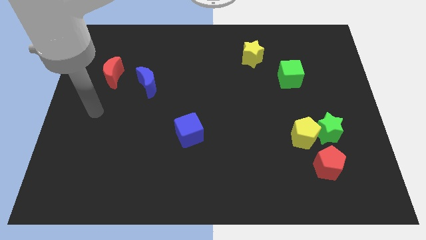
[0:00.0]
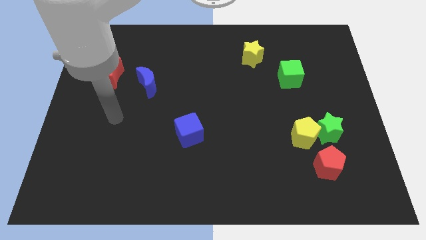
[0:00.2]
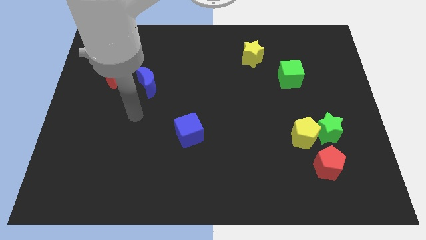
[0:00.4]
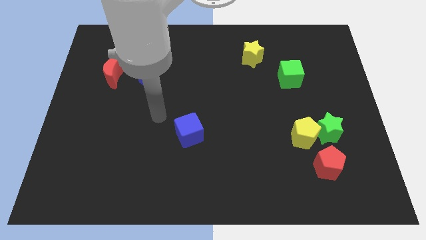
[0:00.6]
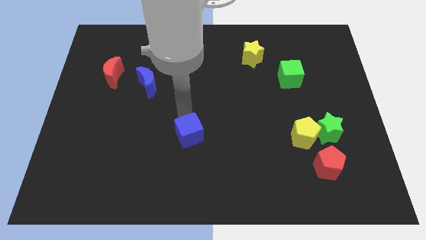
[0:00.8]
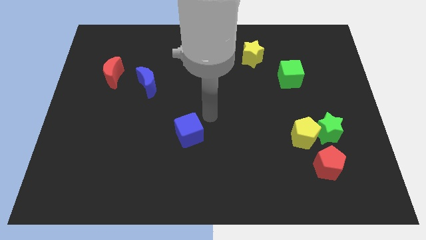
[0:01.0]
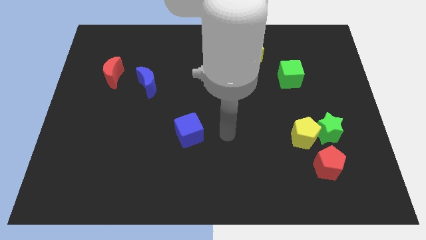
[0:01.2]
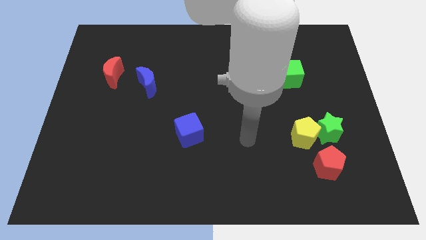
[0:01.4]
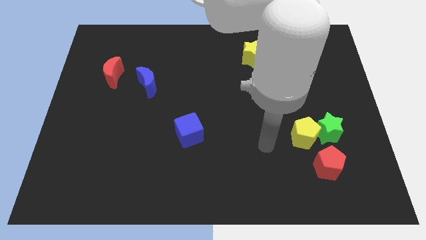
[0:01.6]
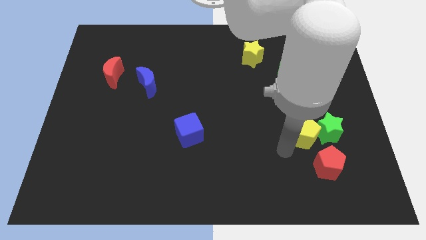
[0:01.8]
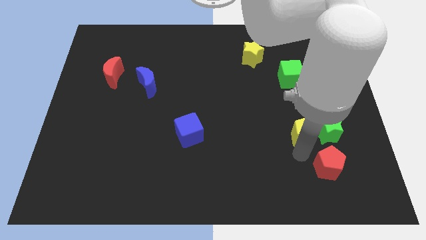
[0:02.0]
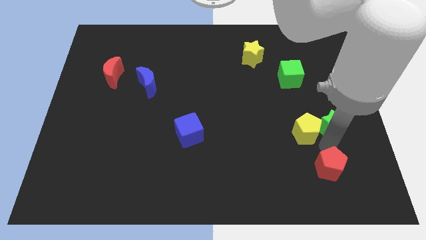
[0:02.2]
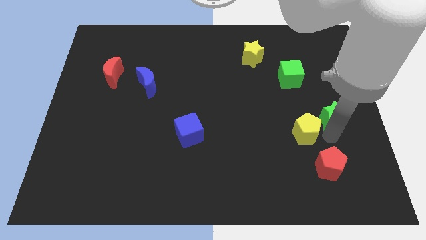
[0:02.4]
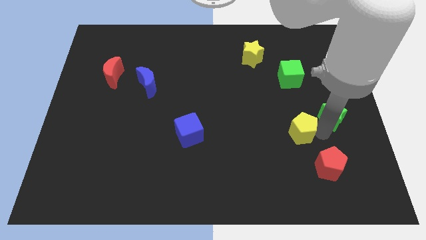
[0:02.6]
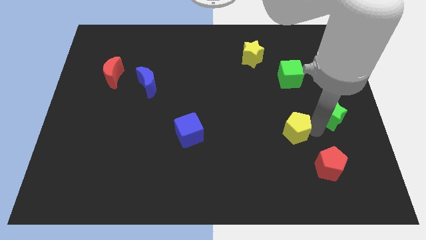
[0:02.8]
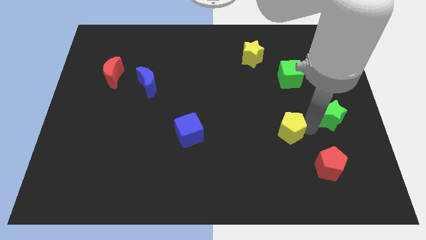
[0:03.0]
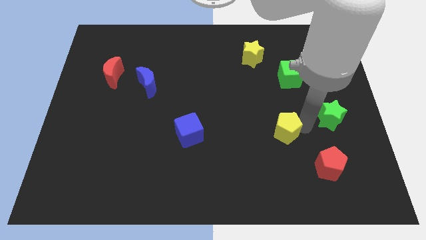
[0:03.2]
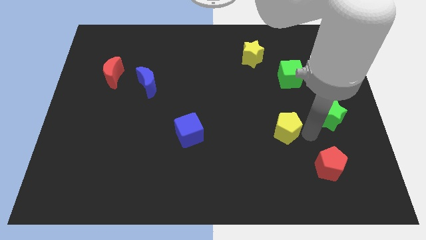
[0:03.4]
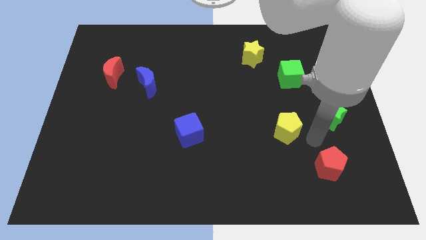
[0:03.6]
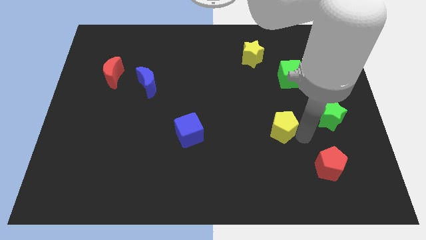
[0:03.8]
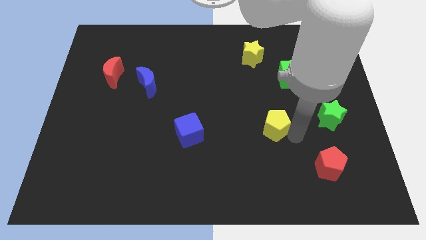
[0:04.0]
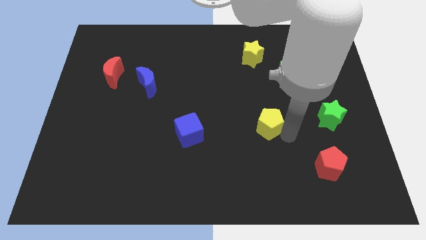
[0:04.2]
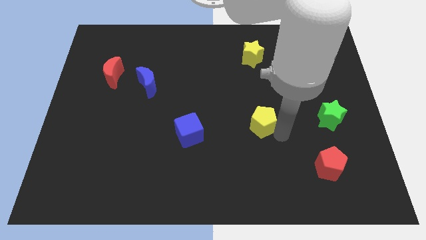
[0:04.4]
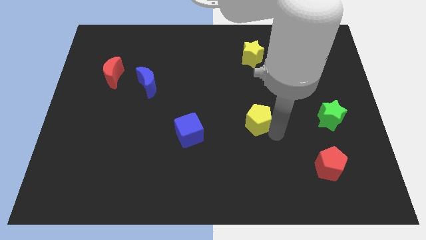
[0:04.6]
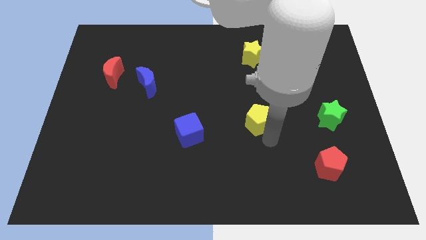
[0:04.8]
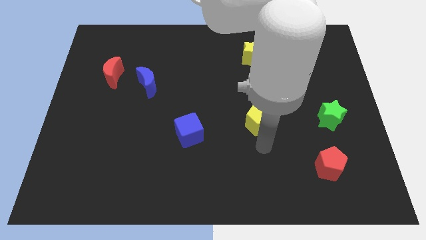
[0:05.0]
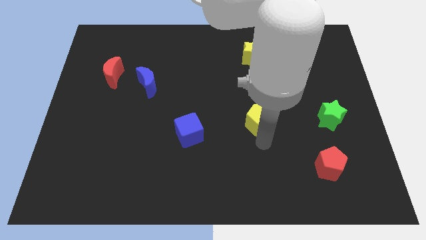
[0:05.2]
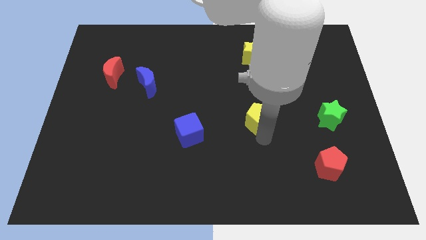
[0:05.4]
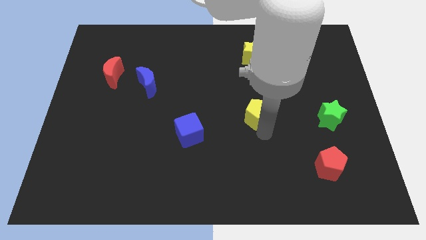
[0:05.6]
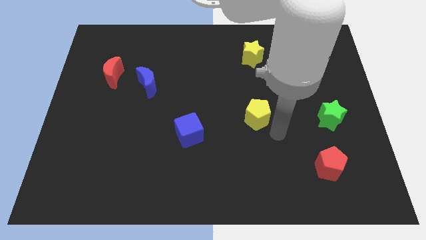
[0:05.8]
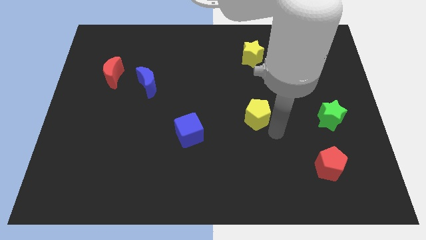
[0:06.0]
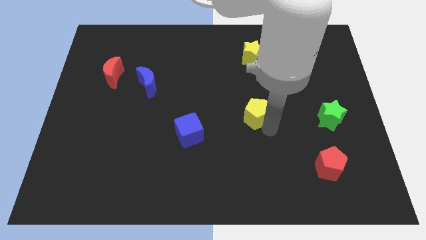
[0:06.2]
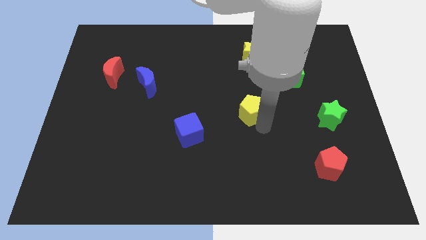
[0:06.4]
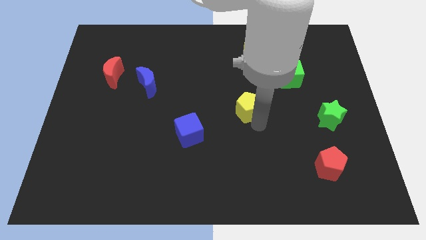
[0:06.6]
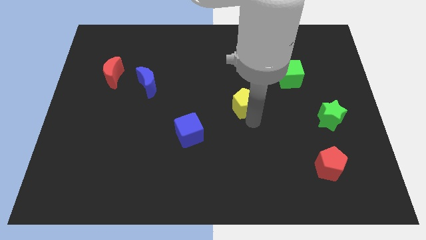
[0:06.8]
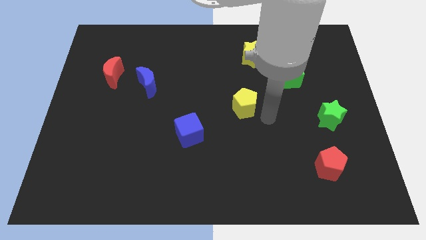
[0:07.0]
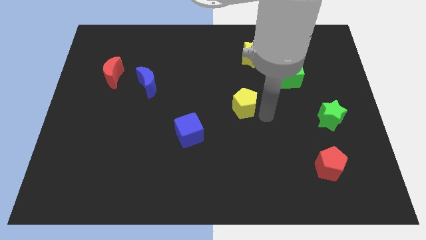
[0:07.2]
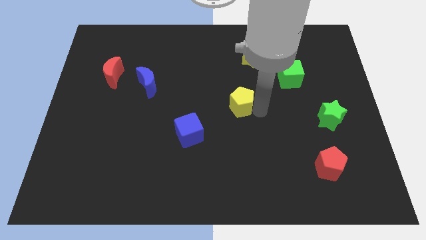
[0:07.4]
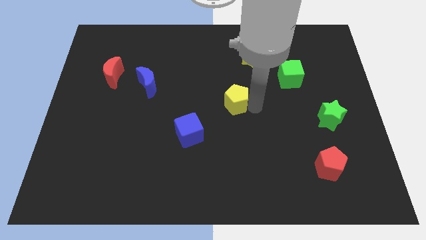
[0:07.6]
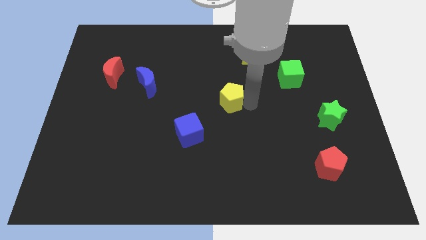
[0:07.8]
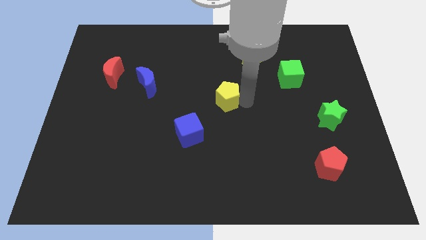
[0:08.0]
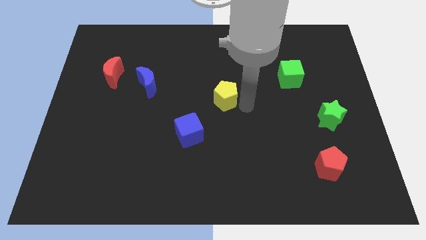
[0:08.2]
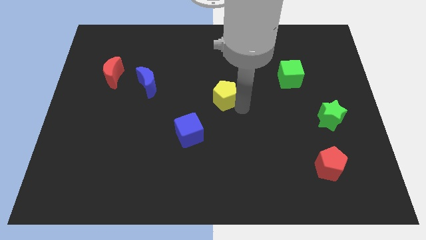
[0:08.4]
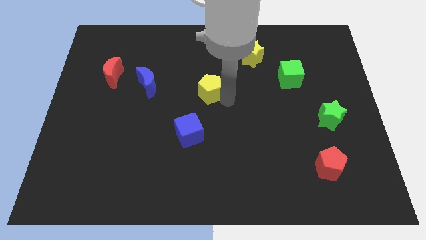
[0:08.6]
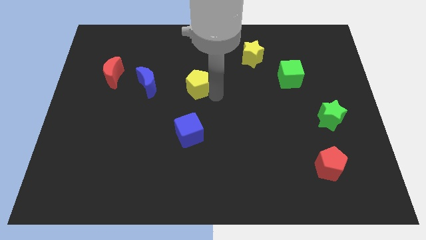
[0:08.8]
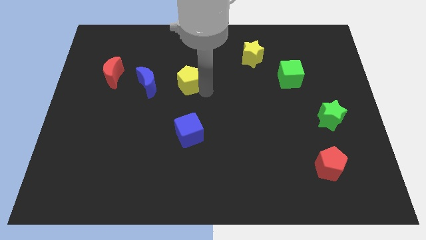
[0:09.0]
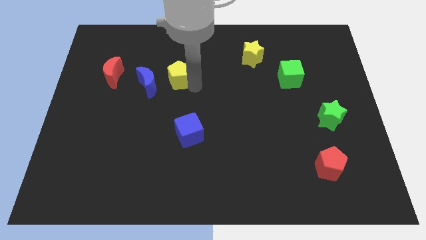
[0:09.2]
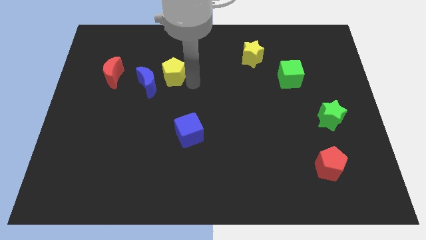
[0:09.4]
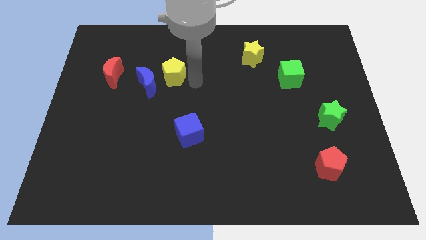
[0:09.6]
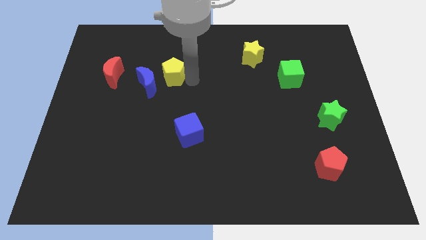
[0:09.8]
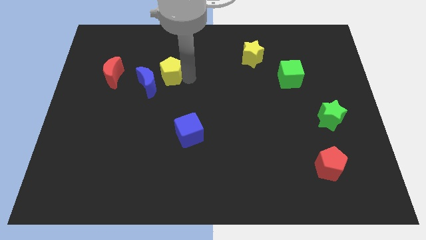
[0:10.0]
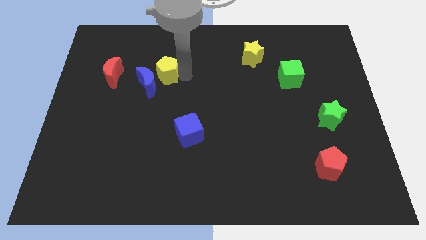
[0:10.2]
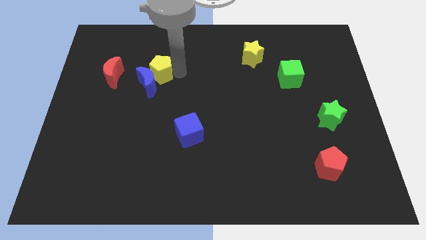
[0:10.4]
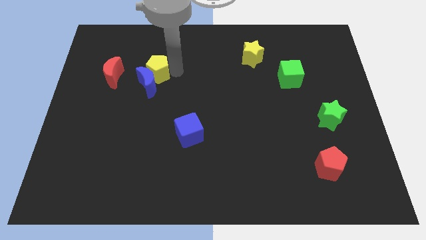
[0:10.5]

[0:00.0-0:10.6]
slide the yellow pentagon to the top left of the blue moon

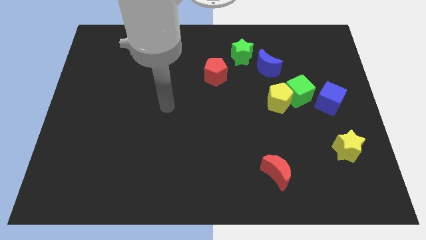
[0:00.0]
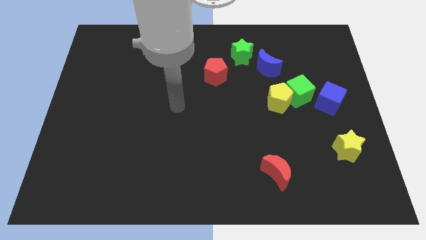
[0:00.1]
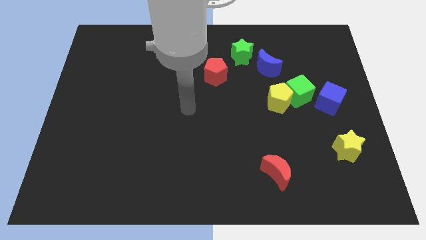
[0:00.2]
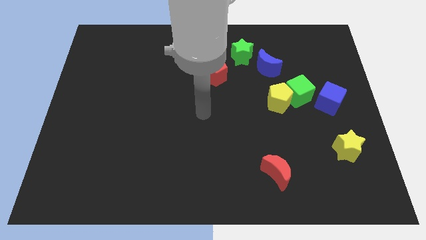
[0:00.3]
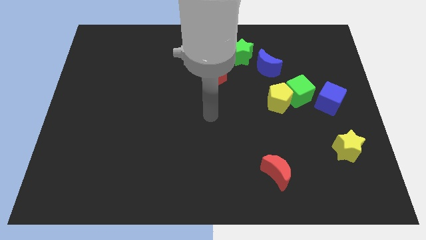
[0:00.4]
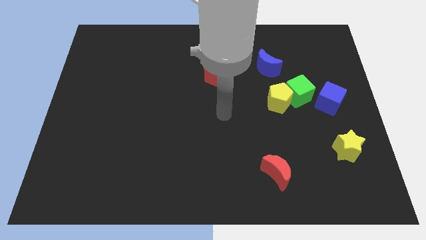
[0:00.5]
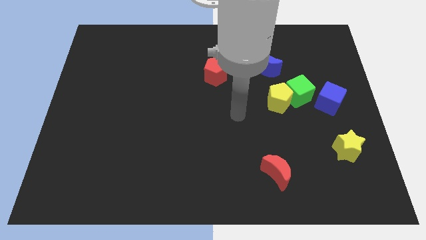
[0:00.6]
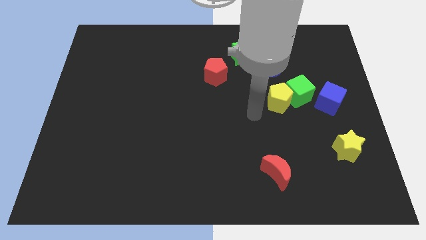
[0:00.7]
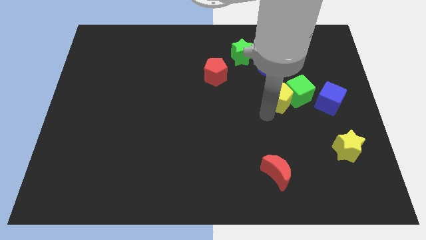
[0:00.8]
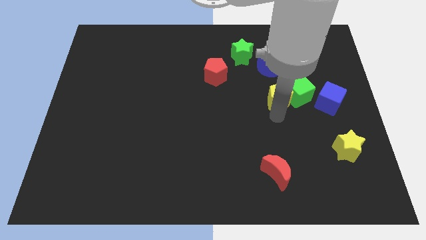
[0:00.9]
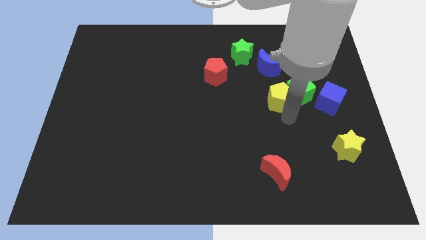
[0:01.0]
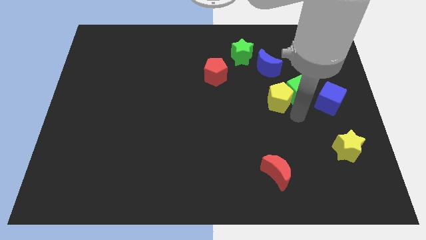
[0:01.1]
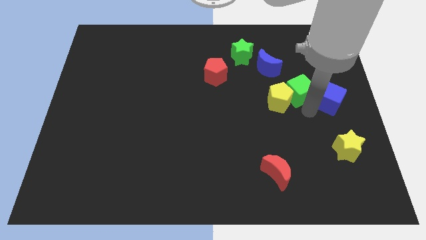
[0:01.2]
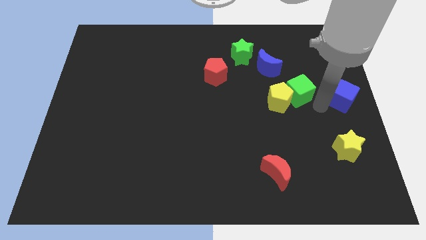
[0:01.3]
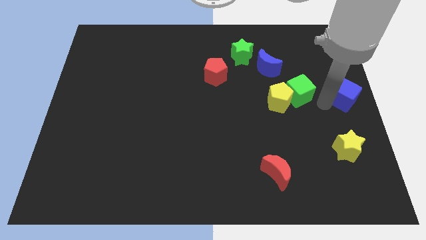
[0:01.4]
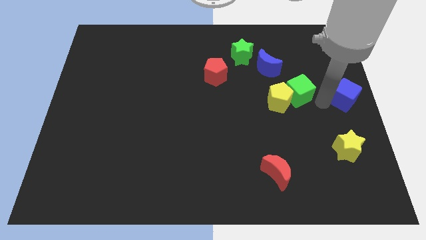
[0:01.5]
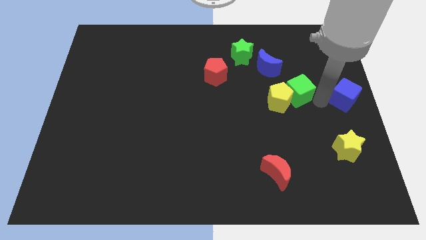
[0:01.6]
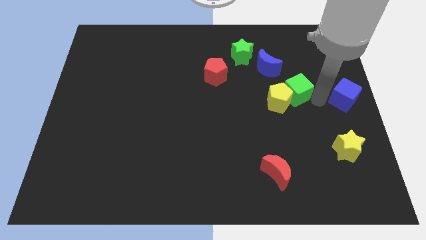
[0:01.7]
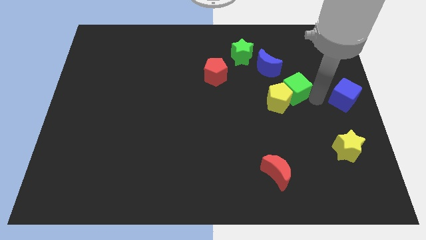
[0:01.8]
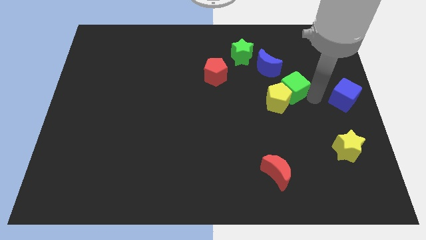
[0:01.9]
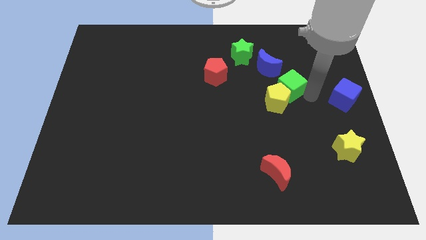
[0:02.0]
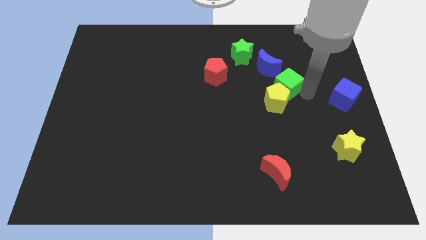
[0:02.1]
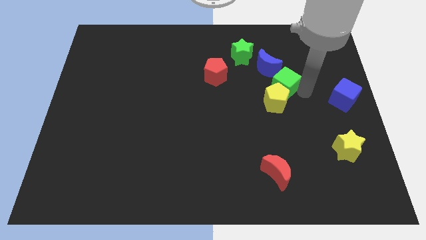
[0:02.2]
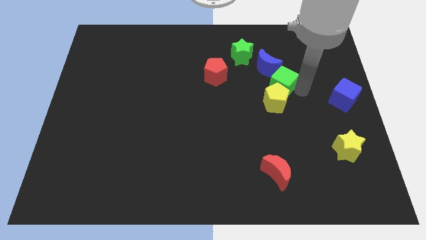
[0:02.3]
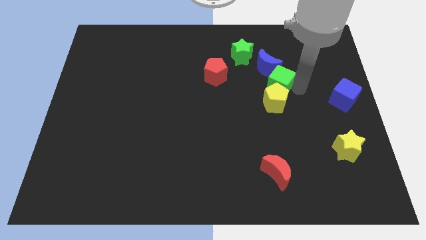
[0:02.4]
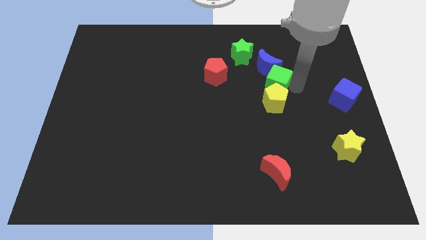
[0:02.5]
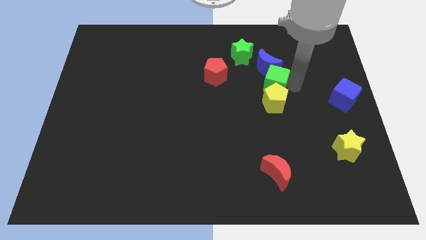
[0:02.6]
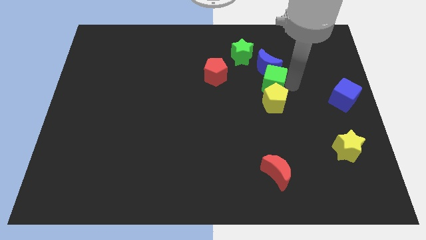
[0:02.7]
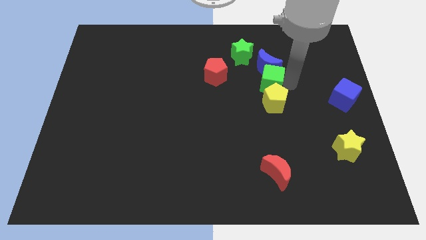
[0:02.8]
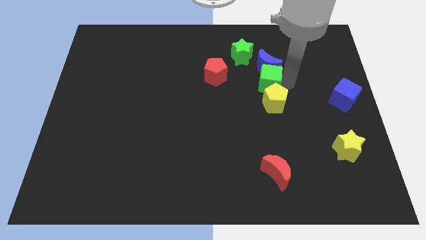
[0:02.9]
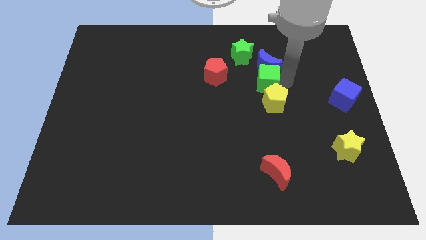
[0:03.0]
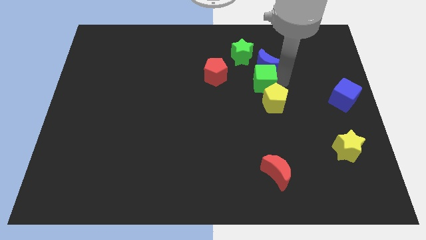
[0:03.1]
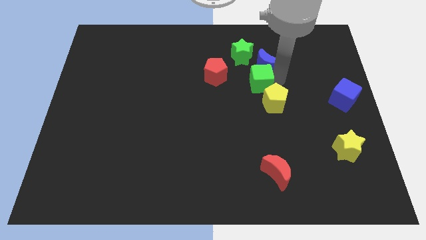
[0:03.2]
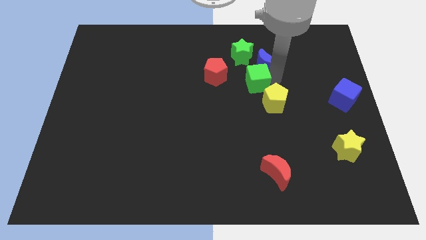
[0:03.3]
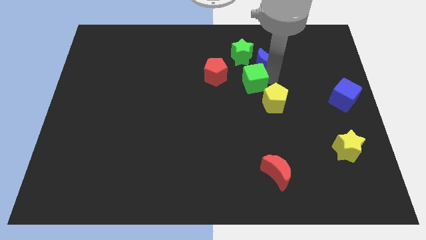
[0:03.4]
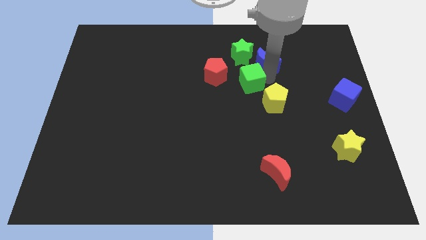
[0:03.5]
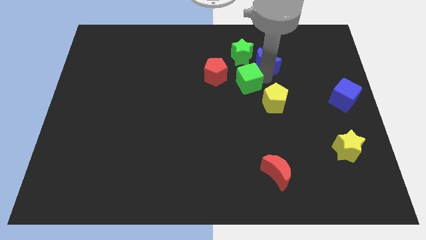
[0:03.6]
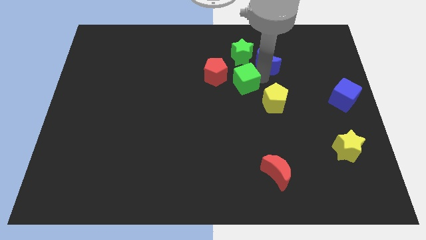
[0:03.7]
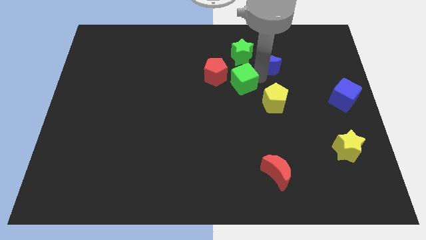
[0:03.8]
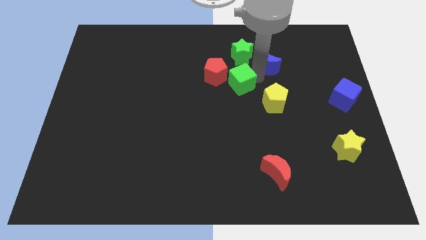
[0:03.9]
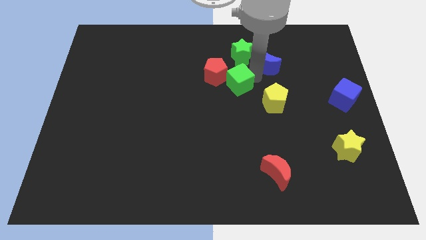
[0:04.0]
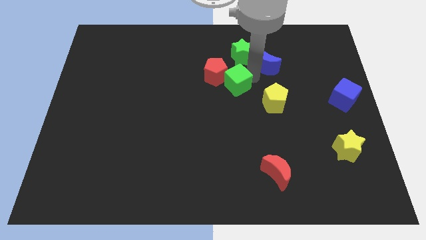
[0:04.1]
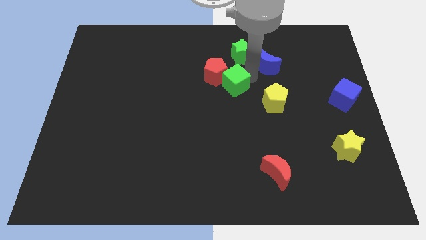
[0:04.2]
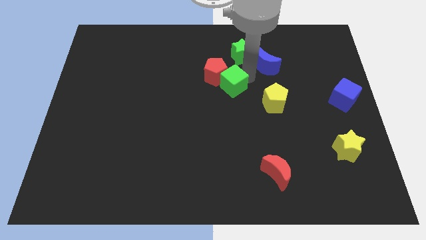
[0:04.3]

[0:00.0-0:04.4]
slide the green cube to the bottom side of the red pentagon
